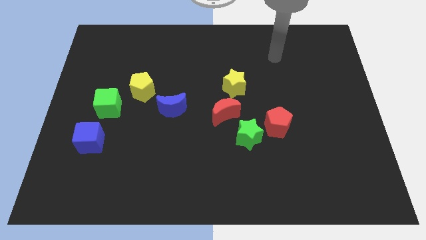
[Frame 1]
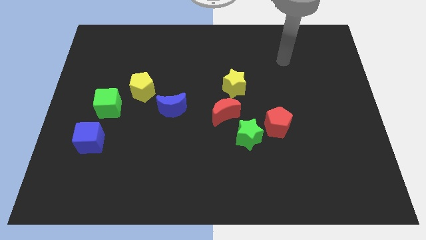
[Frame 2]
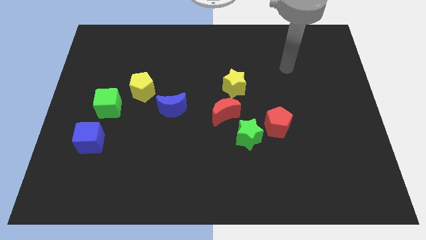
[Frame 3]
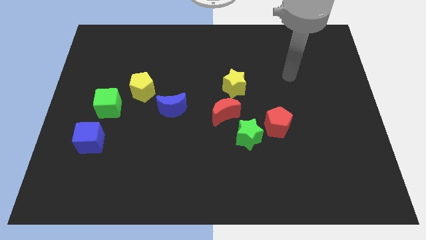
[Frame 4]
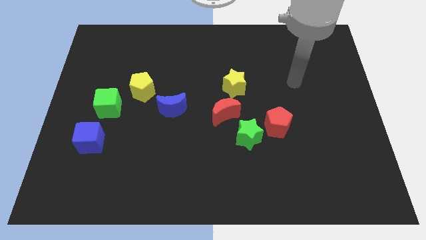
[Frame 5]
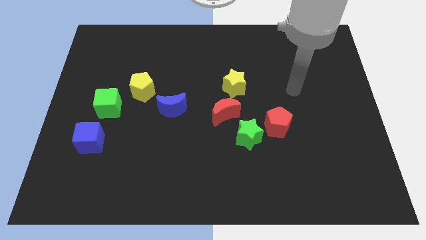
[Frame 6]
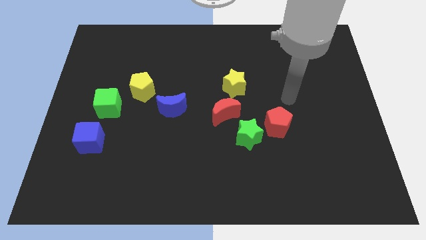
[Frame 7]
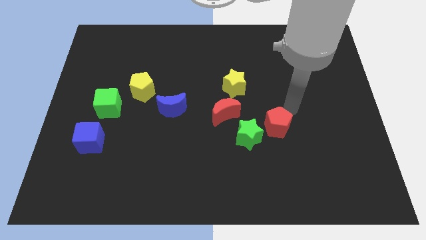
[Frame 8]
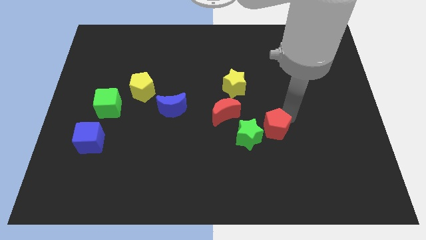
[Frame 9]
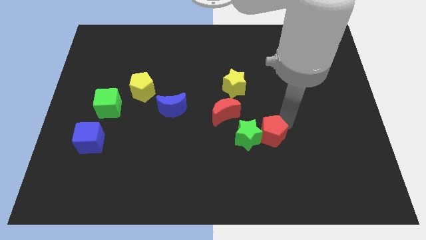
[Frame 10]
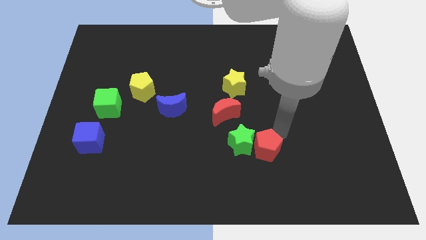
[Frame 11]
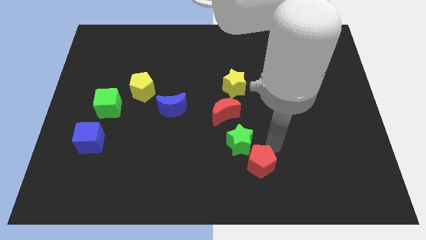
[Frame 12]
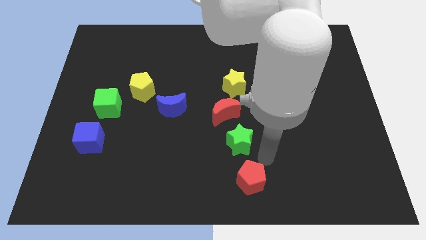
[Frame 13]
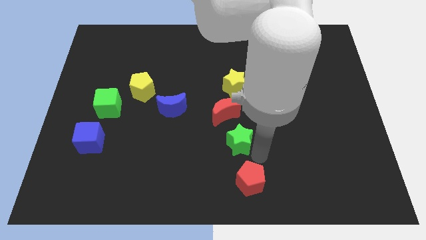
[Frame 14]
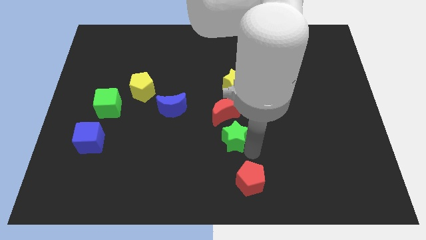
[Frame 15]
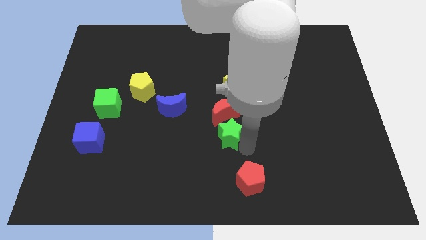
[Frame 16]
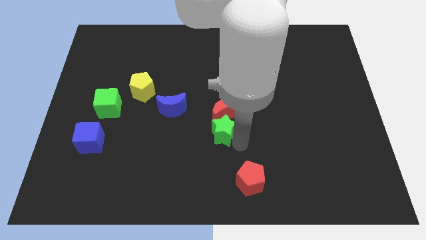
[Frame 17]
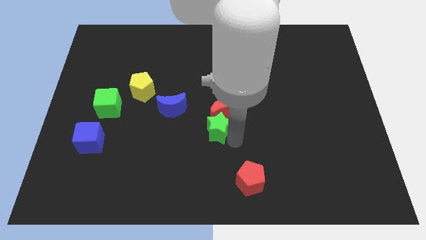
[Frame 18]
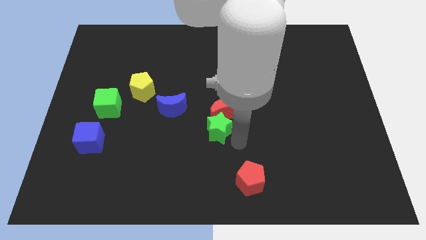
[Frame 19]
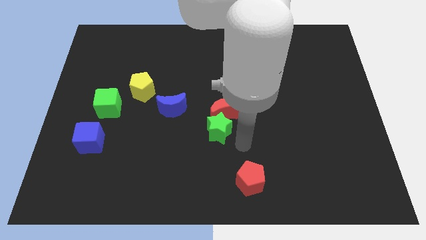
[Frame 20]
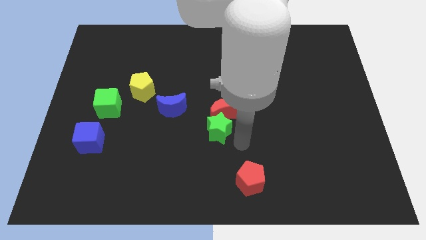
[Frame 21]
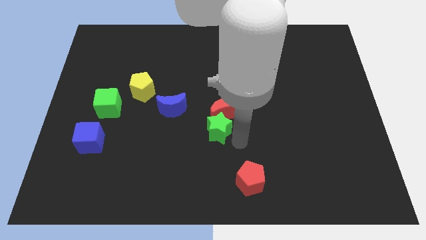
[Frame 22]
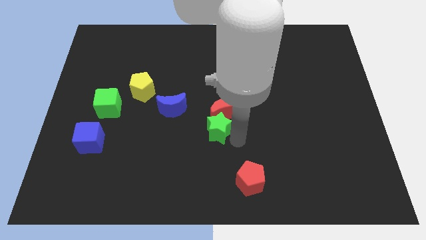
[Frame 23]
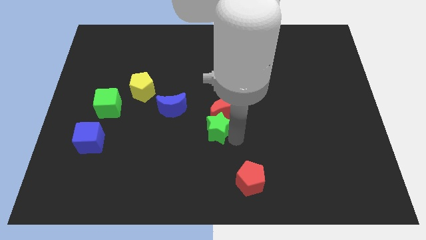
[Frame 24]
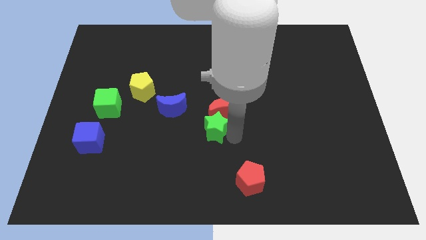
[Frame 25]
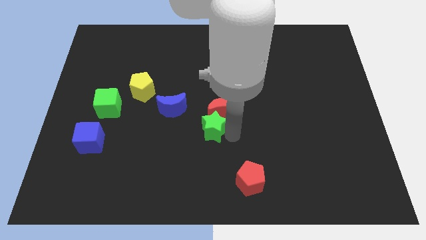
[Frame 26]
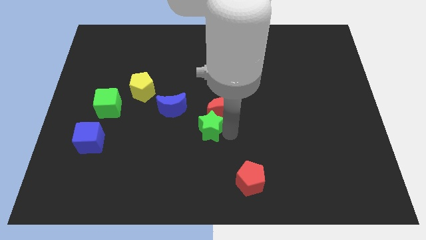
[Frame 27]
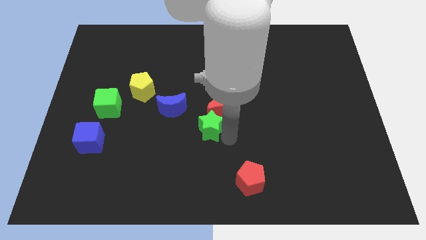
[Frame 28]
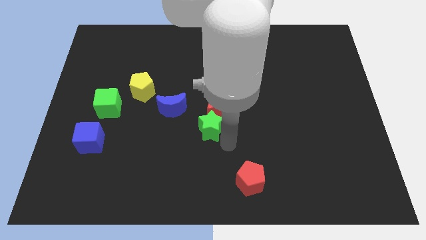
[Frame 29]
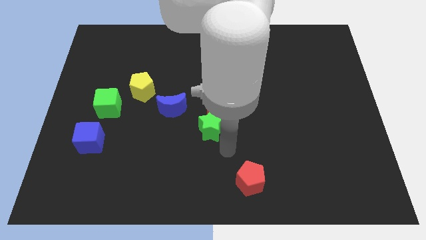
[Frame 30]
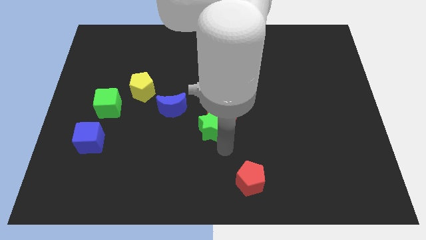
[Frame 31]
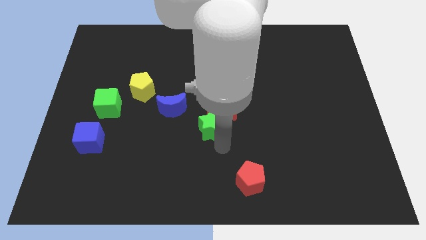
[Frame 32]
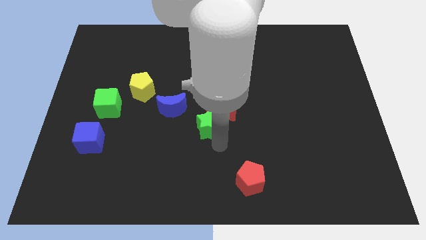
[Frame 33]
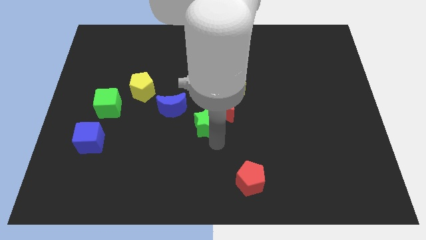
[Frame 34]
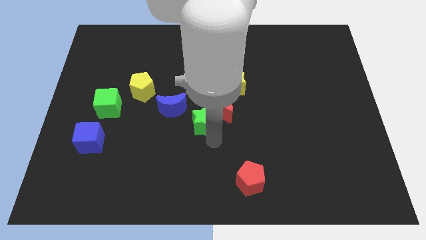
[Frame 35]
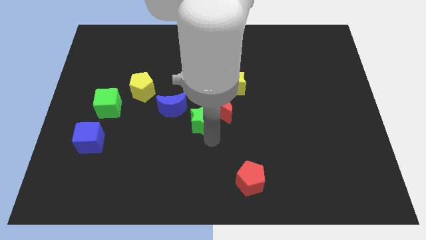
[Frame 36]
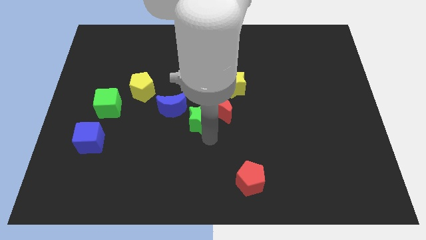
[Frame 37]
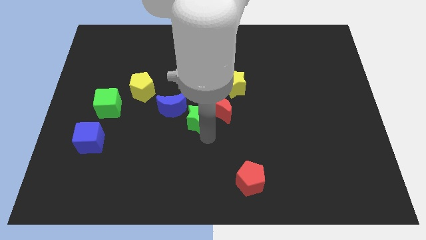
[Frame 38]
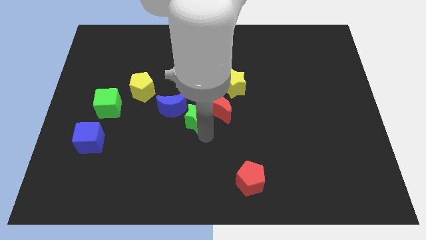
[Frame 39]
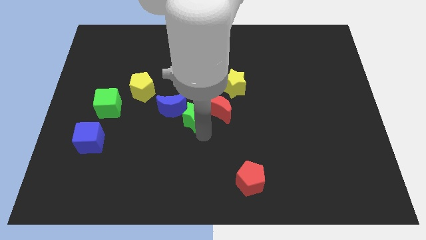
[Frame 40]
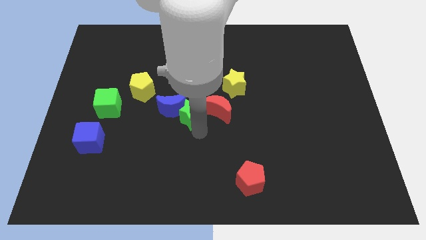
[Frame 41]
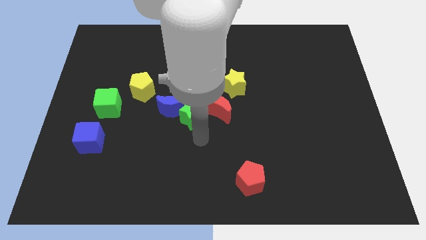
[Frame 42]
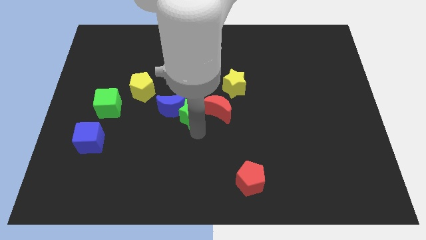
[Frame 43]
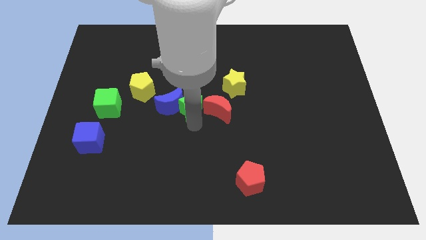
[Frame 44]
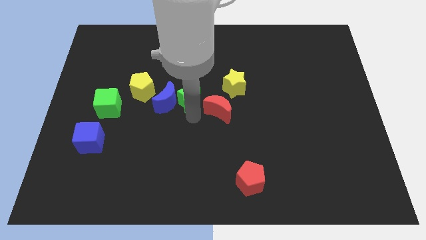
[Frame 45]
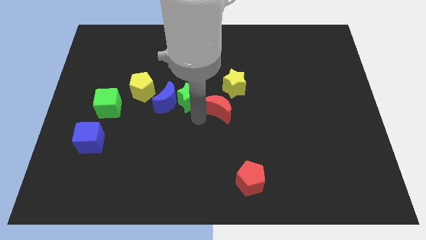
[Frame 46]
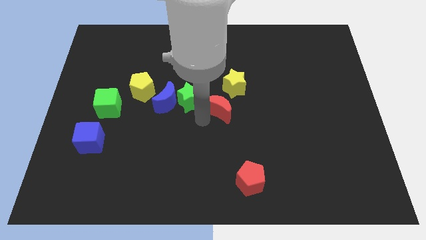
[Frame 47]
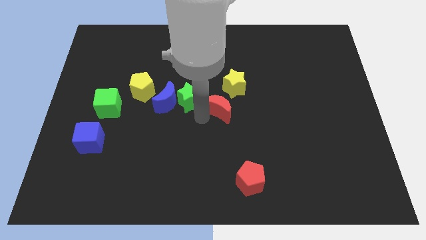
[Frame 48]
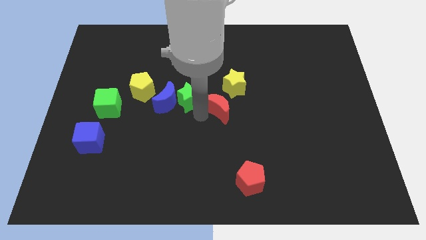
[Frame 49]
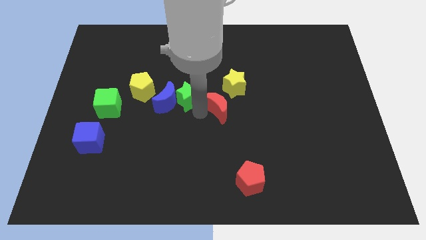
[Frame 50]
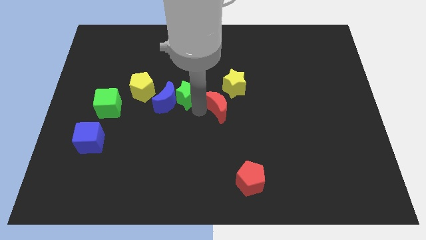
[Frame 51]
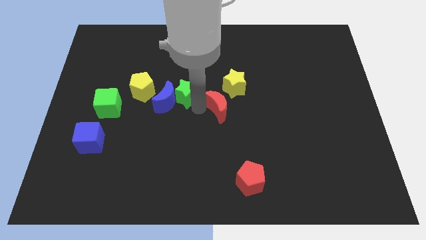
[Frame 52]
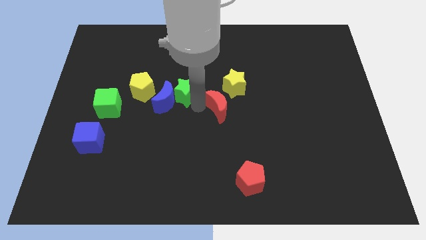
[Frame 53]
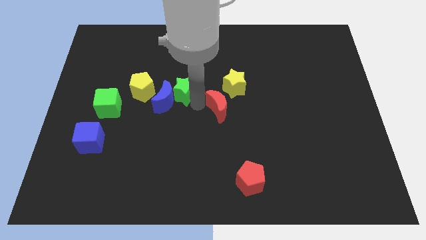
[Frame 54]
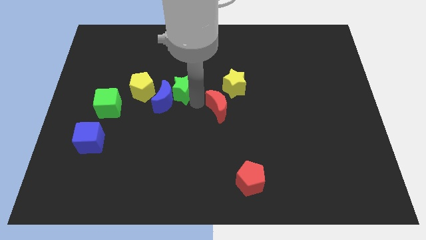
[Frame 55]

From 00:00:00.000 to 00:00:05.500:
push the green star diagonally upwards and to the left

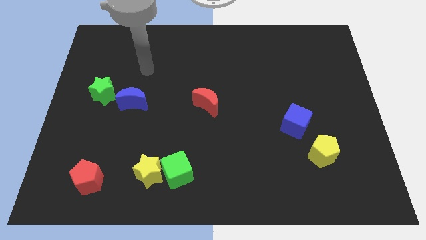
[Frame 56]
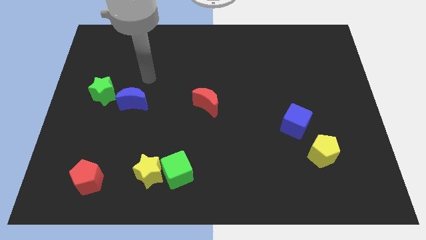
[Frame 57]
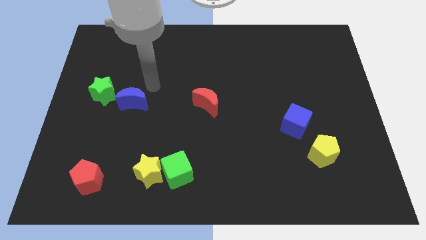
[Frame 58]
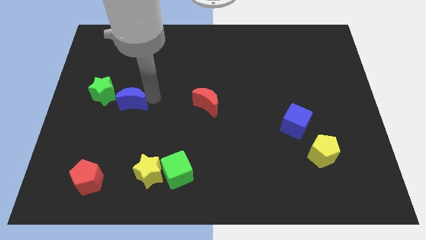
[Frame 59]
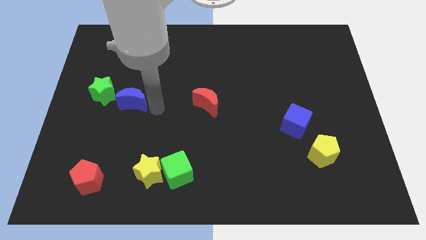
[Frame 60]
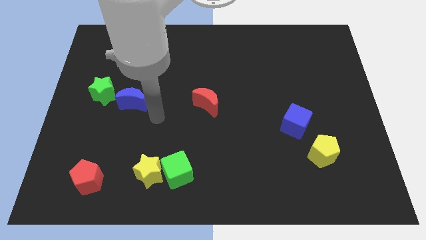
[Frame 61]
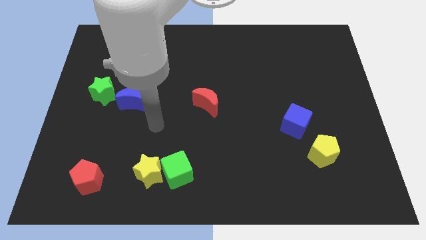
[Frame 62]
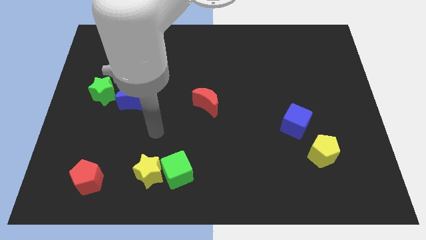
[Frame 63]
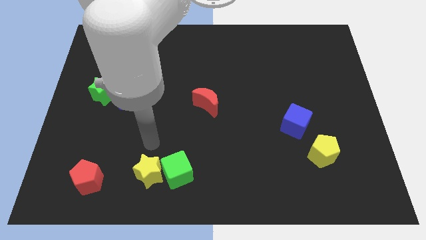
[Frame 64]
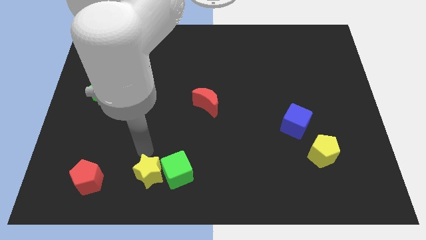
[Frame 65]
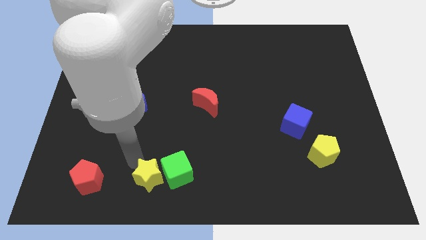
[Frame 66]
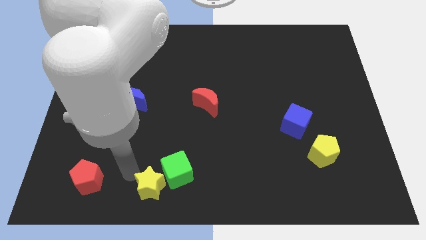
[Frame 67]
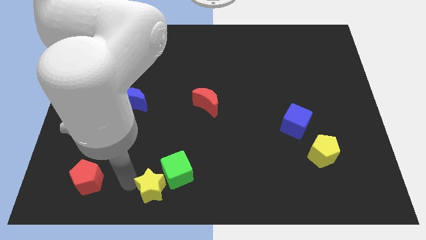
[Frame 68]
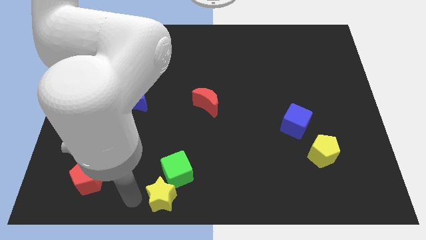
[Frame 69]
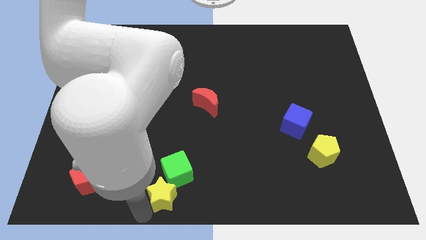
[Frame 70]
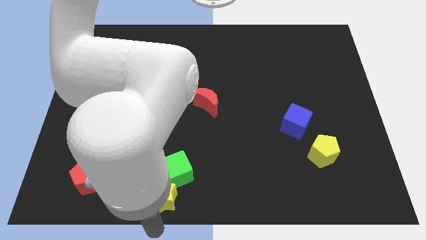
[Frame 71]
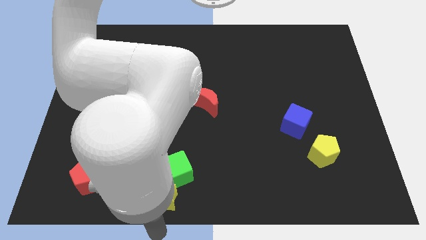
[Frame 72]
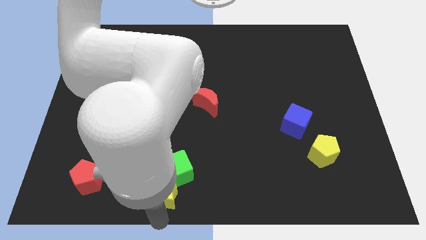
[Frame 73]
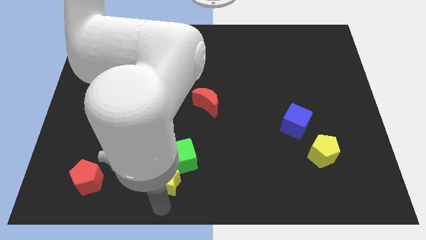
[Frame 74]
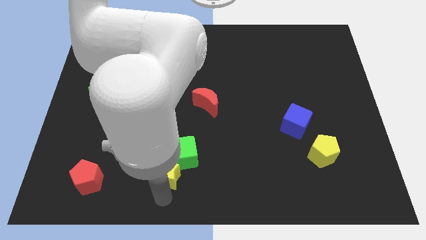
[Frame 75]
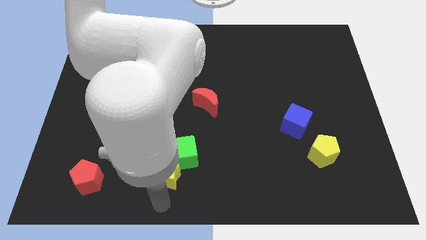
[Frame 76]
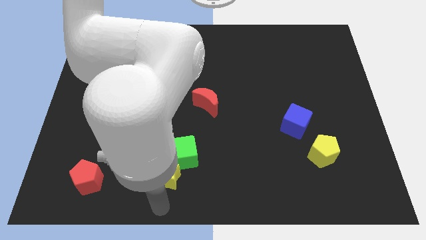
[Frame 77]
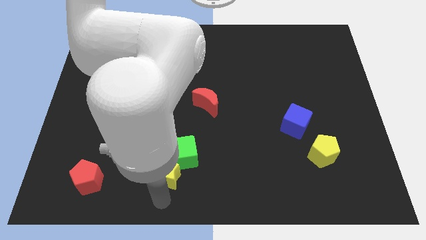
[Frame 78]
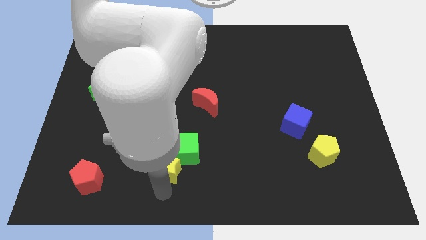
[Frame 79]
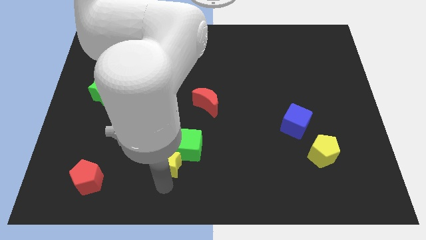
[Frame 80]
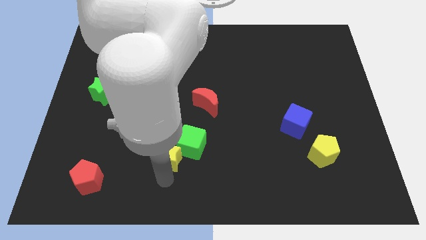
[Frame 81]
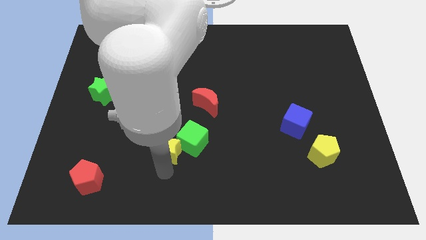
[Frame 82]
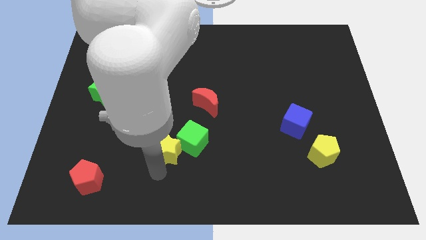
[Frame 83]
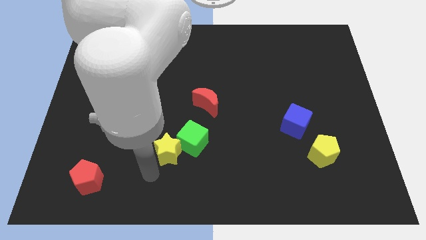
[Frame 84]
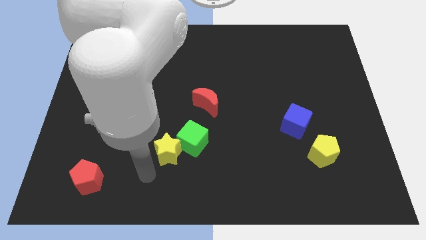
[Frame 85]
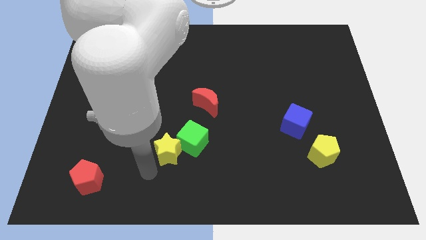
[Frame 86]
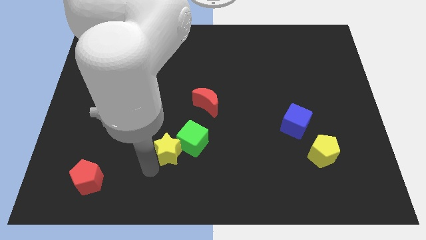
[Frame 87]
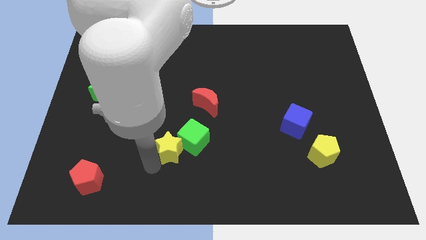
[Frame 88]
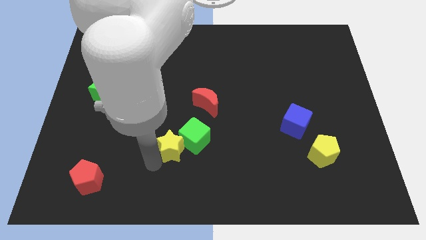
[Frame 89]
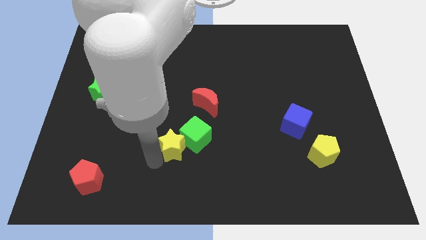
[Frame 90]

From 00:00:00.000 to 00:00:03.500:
move the yellow star a bit up and right diagonally
